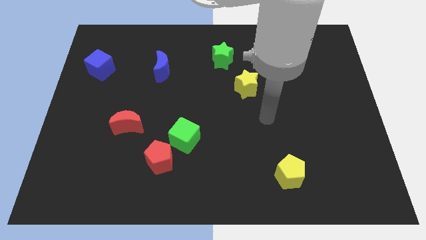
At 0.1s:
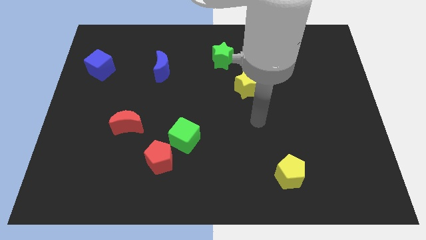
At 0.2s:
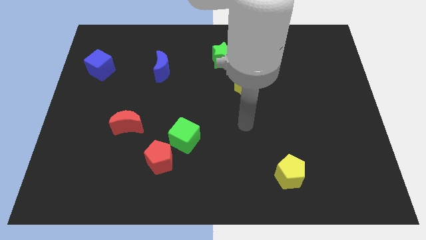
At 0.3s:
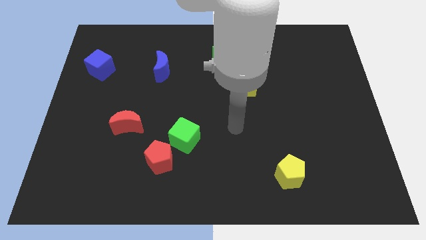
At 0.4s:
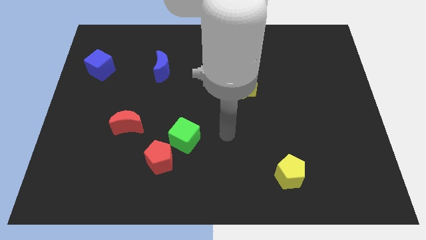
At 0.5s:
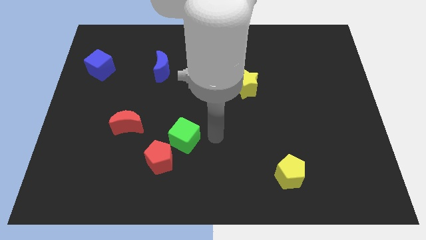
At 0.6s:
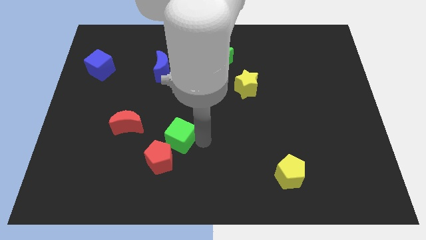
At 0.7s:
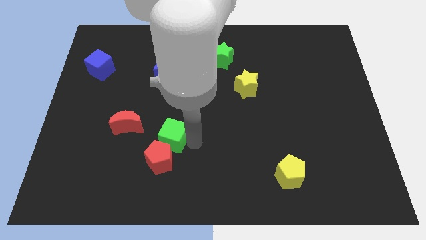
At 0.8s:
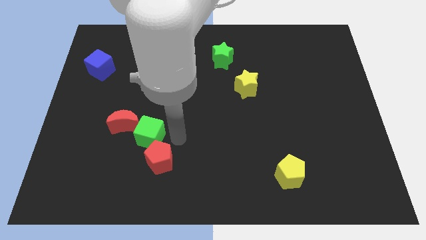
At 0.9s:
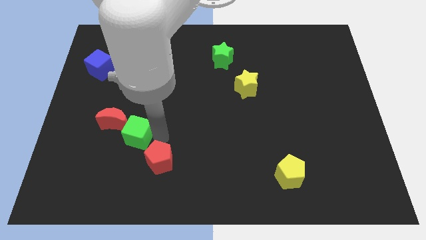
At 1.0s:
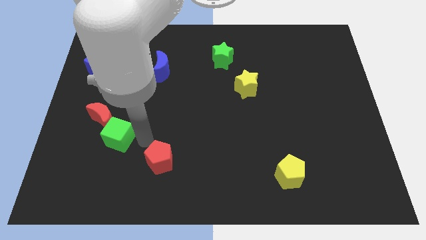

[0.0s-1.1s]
move the red pentagon away from the green cube

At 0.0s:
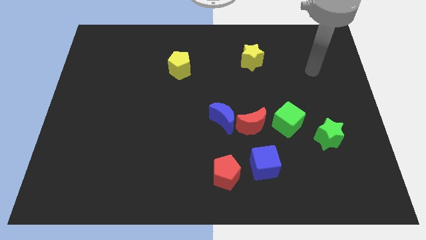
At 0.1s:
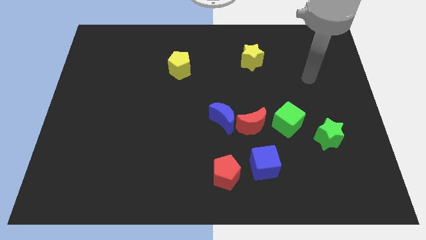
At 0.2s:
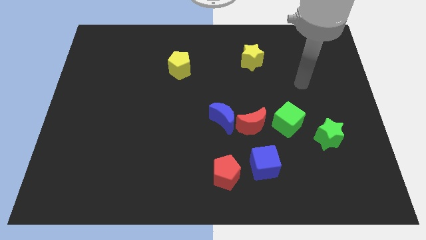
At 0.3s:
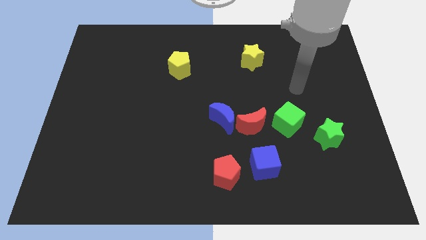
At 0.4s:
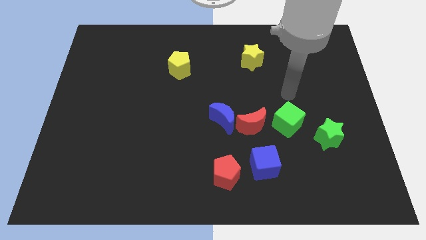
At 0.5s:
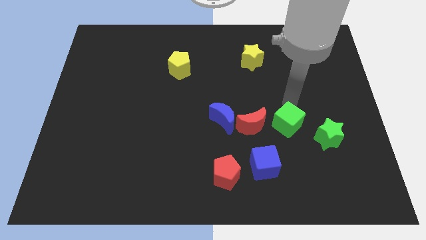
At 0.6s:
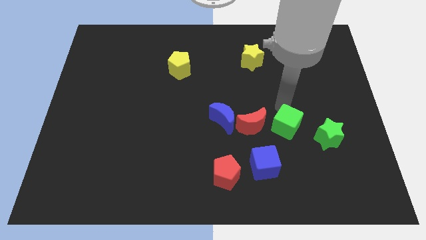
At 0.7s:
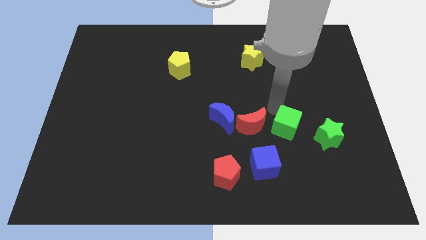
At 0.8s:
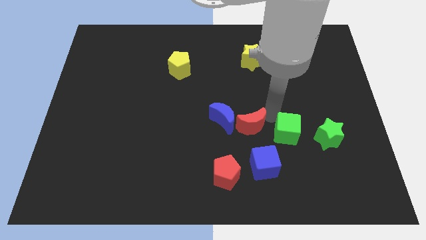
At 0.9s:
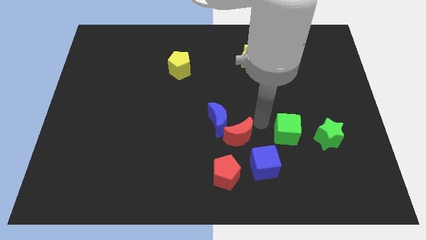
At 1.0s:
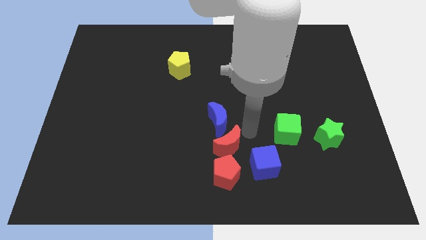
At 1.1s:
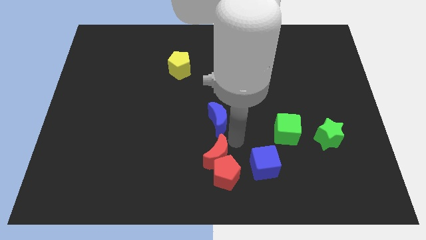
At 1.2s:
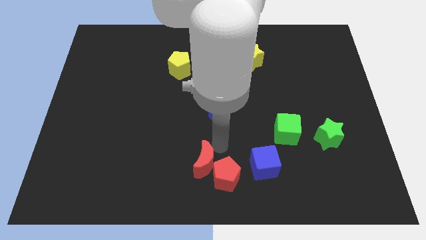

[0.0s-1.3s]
pull the blue moon apart from the red moon

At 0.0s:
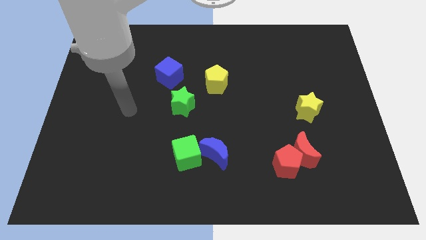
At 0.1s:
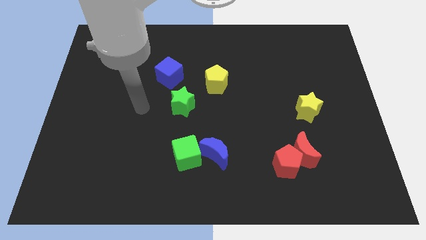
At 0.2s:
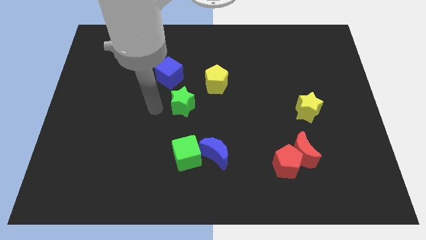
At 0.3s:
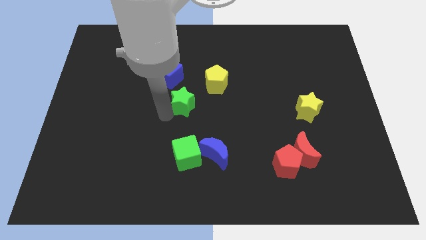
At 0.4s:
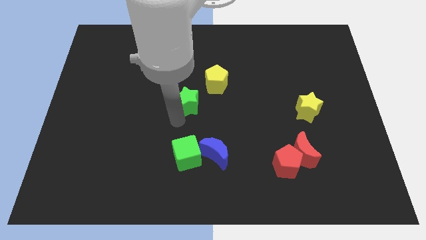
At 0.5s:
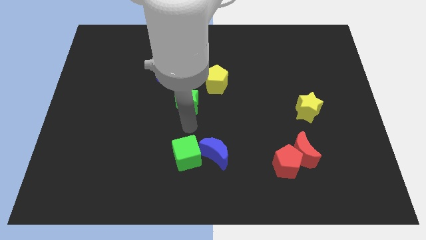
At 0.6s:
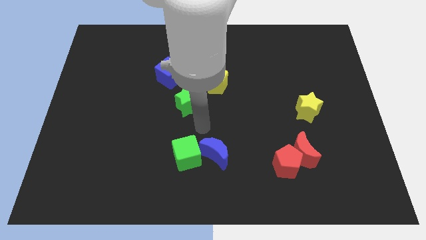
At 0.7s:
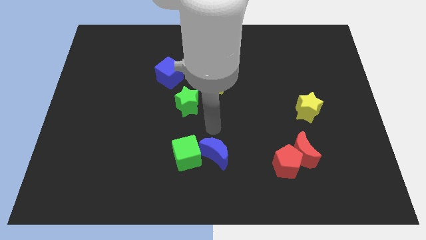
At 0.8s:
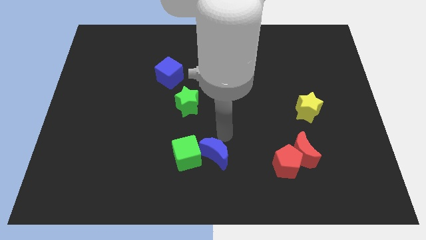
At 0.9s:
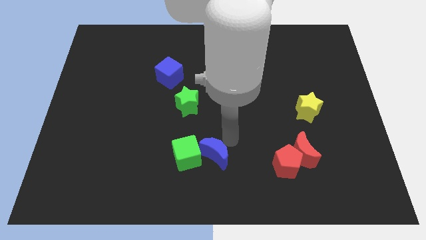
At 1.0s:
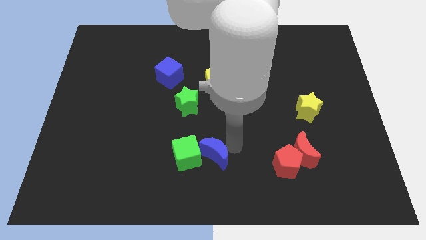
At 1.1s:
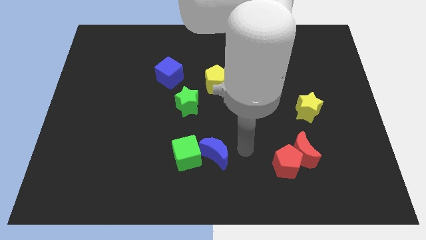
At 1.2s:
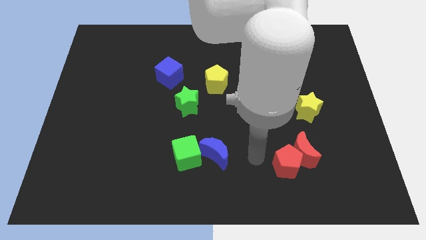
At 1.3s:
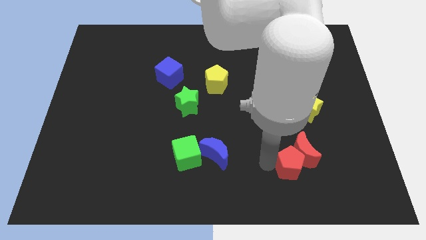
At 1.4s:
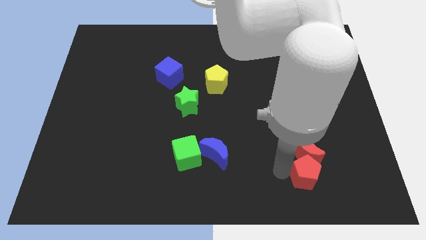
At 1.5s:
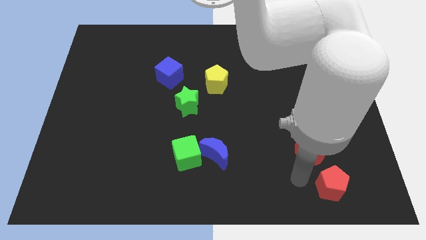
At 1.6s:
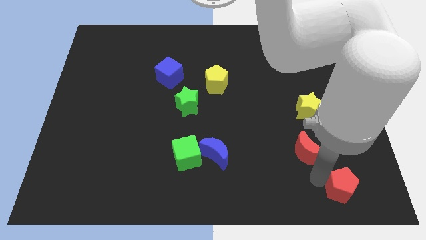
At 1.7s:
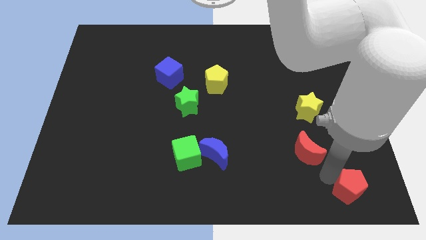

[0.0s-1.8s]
pull the red moon apart from the red pentagon

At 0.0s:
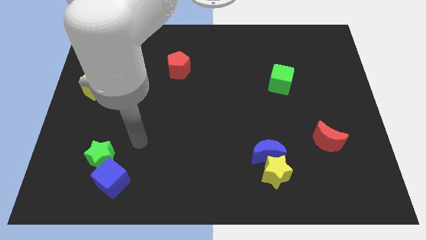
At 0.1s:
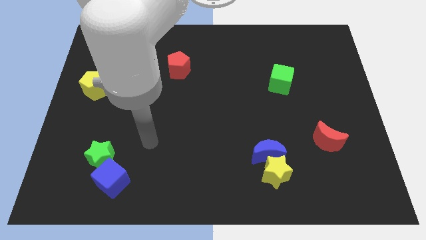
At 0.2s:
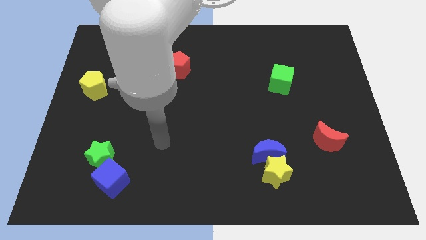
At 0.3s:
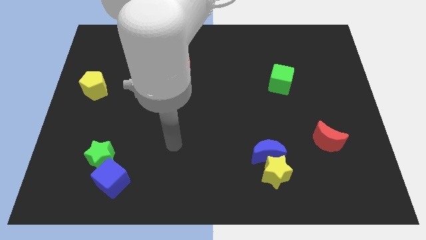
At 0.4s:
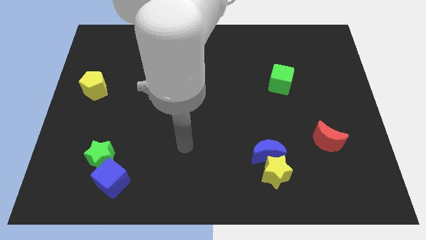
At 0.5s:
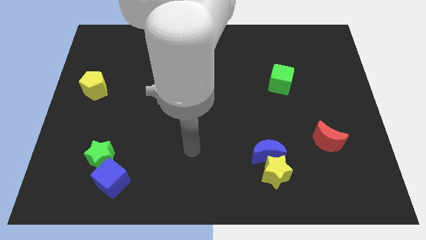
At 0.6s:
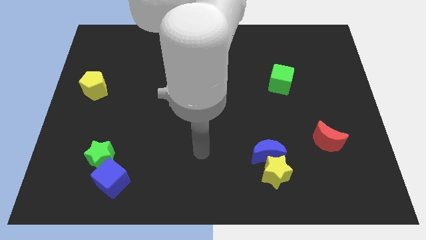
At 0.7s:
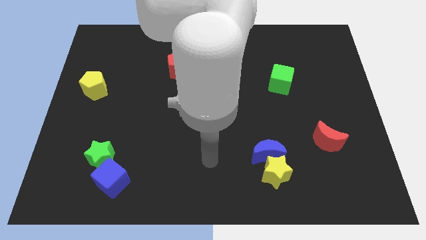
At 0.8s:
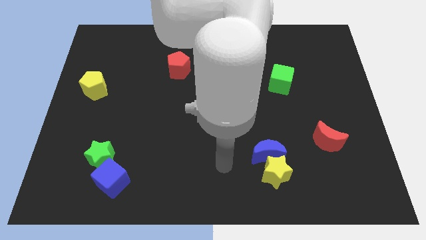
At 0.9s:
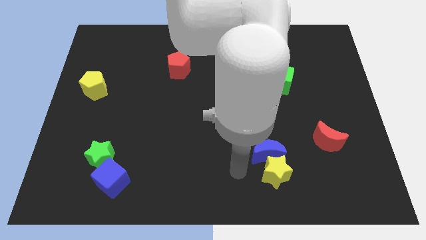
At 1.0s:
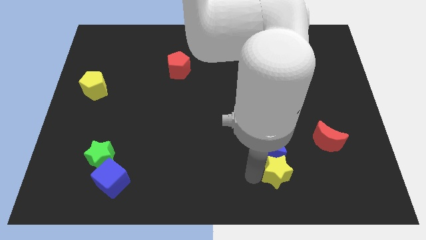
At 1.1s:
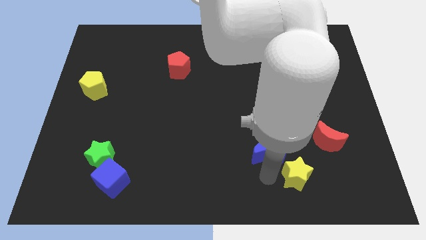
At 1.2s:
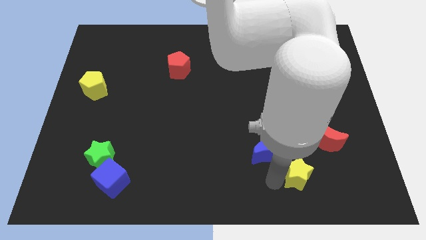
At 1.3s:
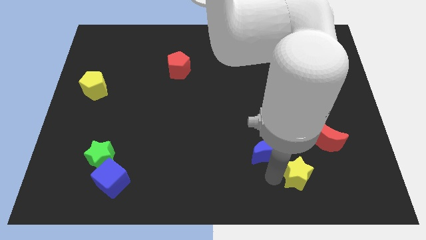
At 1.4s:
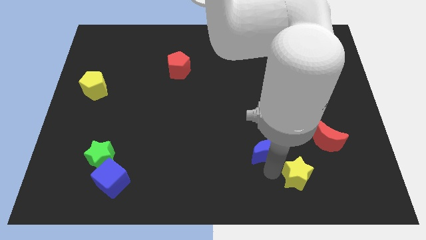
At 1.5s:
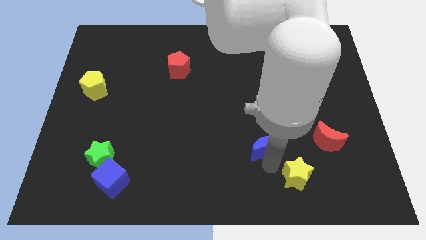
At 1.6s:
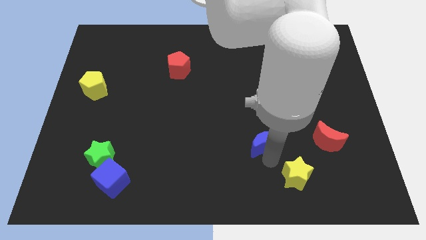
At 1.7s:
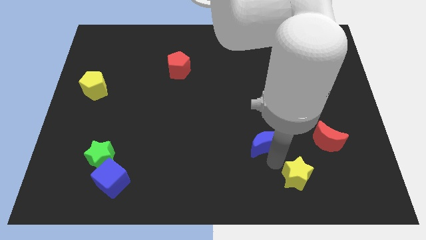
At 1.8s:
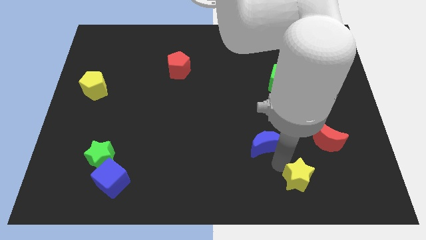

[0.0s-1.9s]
separate the blue moon from the yellow star

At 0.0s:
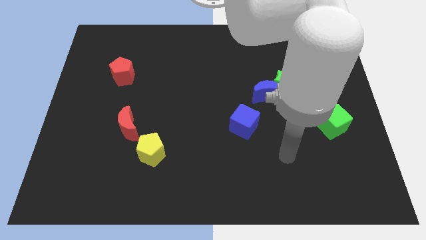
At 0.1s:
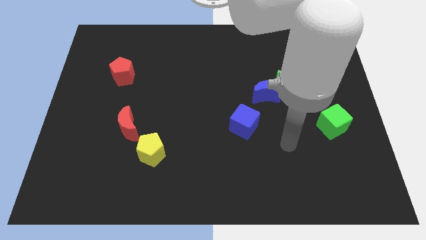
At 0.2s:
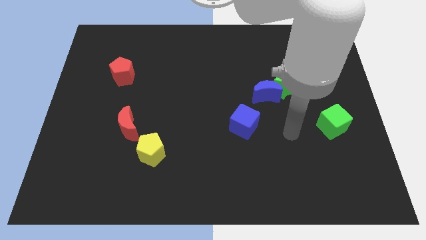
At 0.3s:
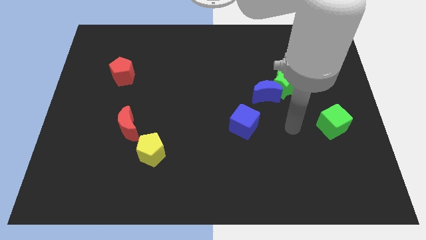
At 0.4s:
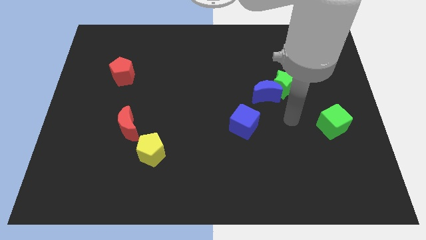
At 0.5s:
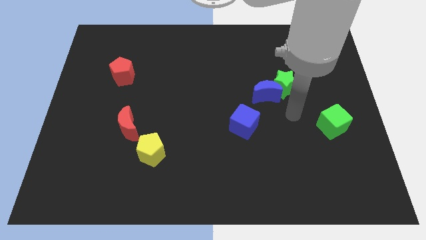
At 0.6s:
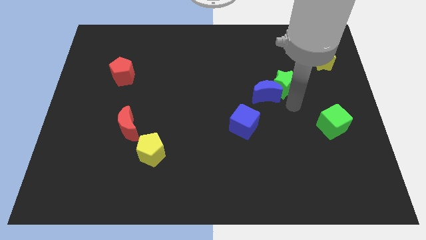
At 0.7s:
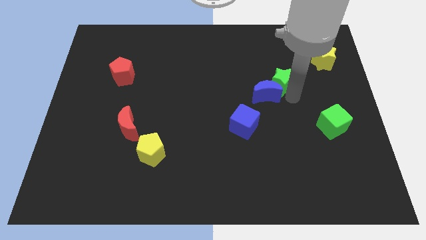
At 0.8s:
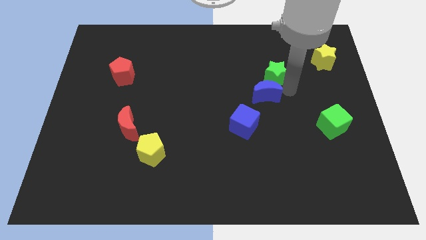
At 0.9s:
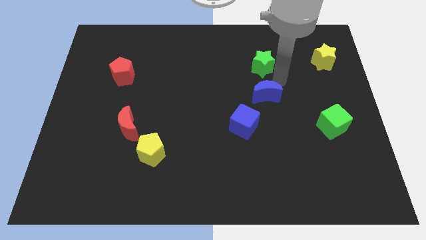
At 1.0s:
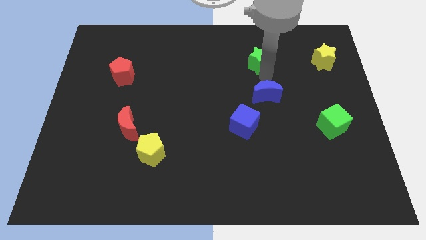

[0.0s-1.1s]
pull the blue moon apart from the green star

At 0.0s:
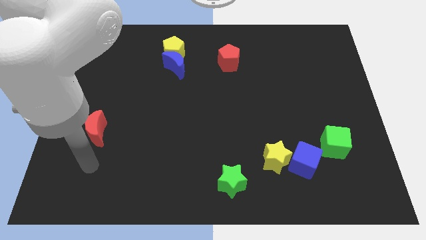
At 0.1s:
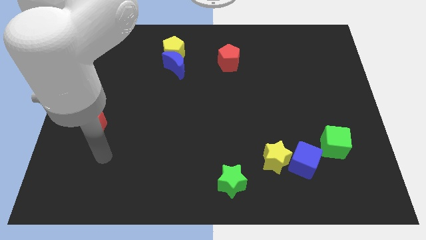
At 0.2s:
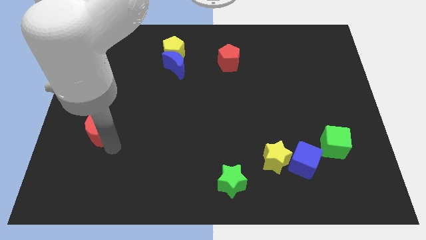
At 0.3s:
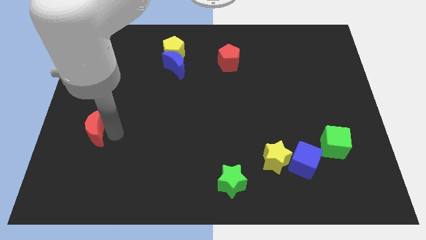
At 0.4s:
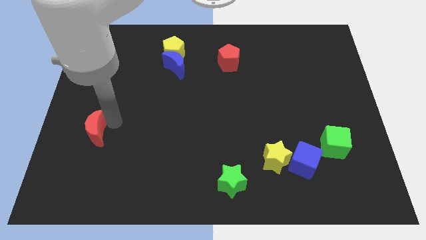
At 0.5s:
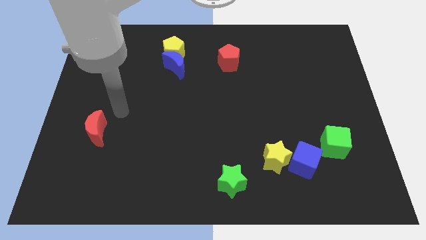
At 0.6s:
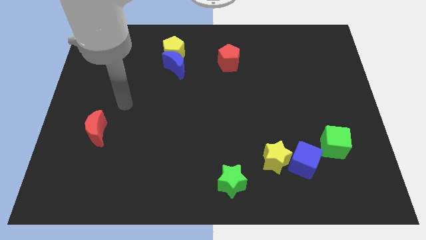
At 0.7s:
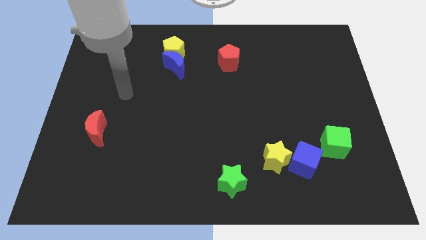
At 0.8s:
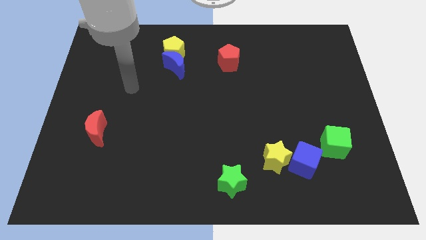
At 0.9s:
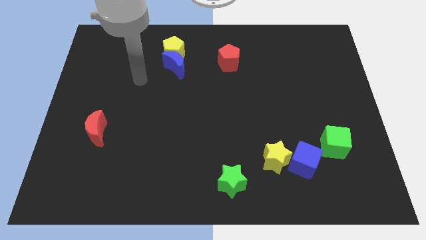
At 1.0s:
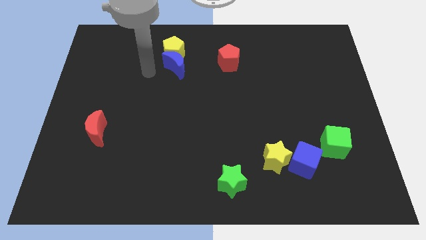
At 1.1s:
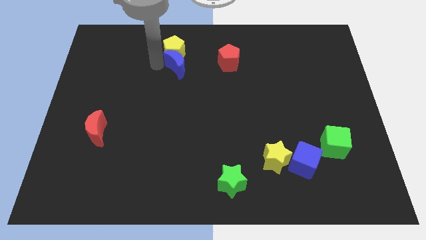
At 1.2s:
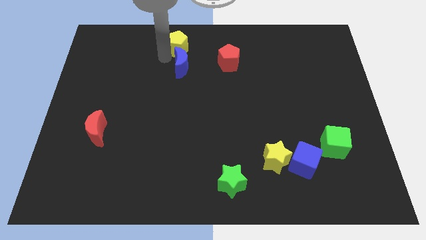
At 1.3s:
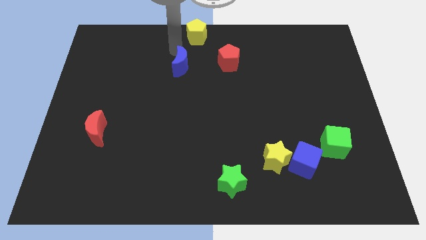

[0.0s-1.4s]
pull the blue moon apart from the yellow pentagon

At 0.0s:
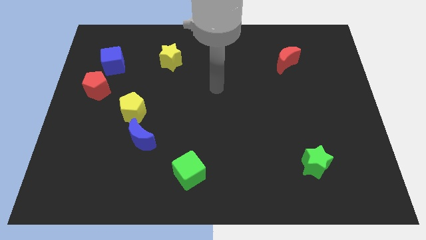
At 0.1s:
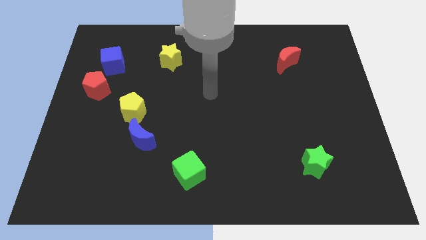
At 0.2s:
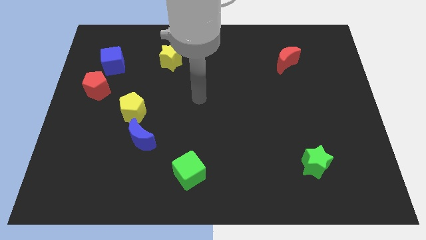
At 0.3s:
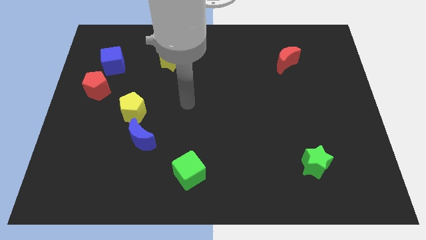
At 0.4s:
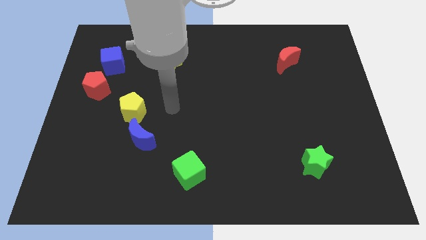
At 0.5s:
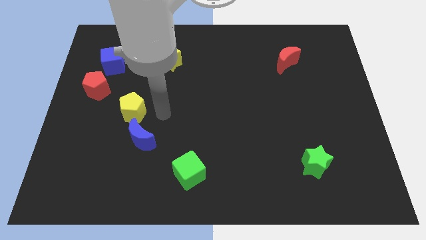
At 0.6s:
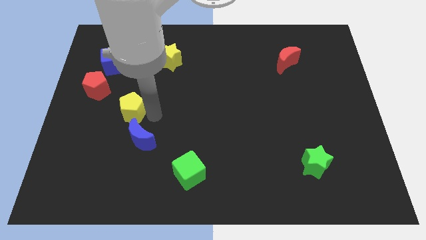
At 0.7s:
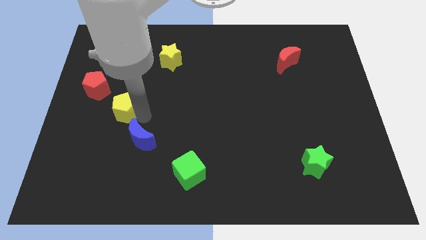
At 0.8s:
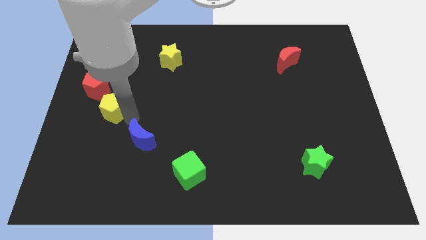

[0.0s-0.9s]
move the blue moon away from the yellow pentagon
